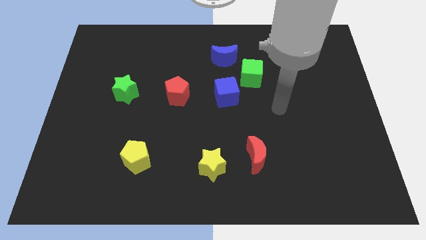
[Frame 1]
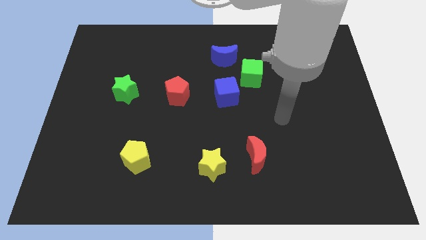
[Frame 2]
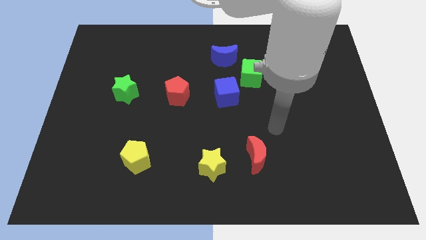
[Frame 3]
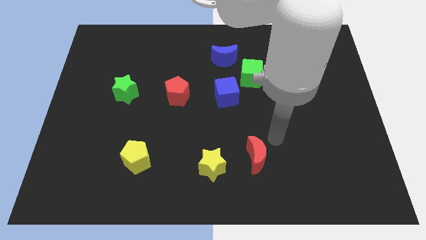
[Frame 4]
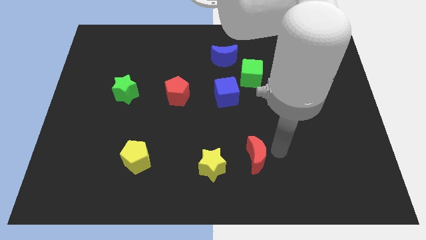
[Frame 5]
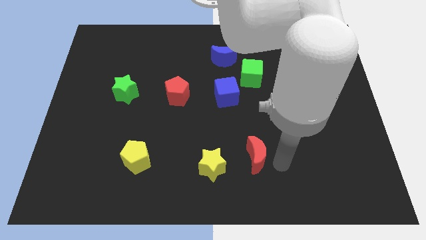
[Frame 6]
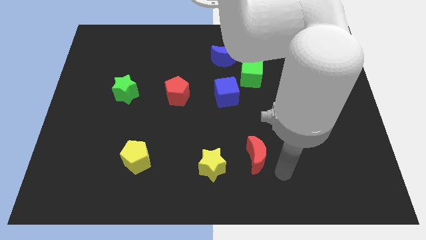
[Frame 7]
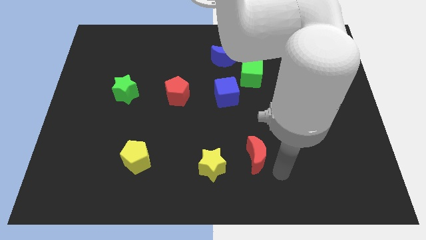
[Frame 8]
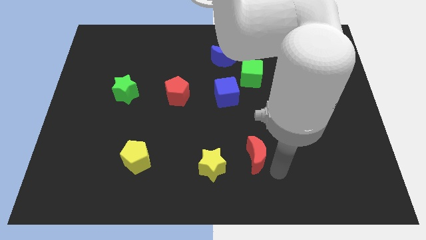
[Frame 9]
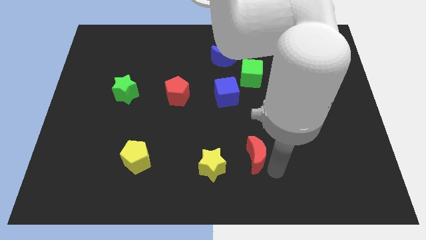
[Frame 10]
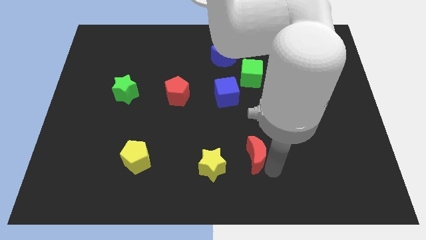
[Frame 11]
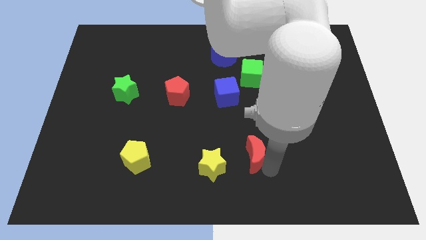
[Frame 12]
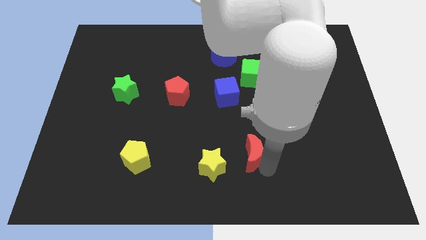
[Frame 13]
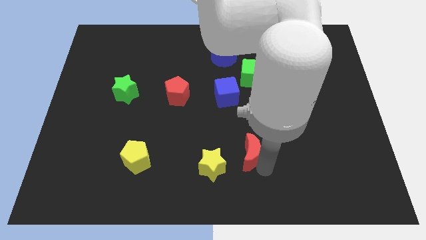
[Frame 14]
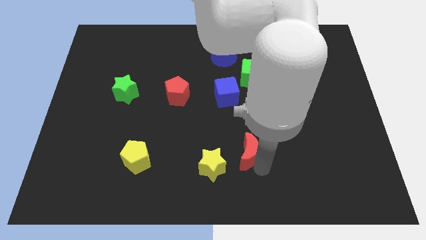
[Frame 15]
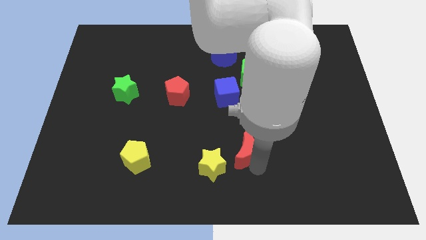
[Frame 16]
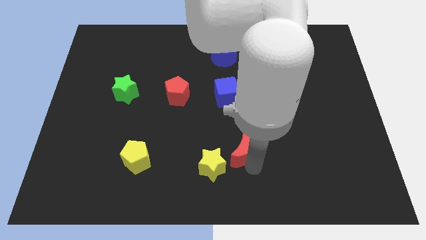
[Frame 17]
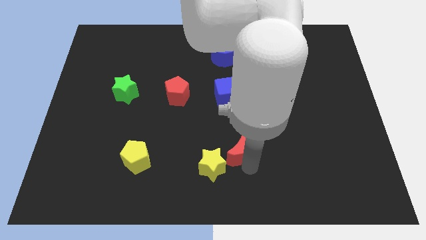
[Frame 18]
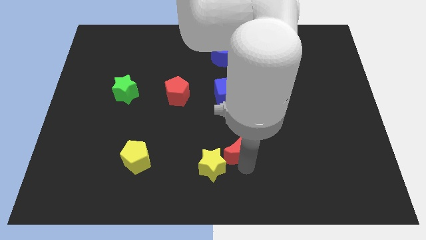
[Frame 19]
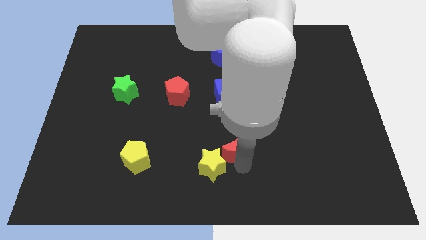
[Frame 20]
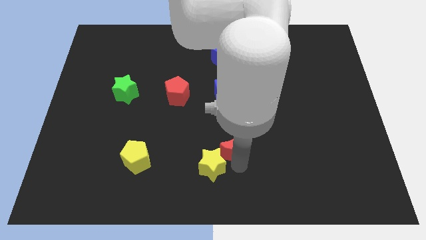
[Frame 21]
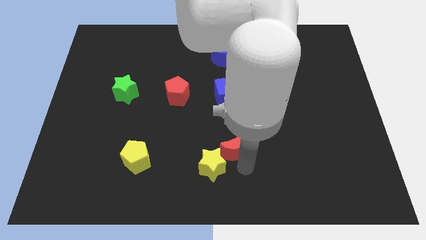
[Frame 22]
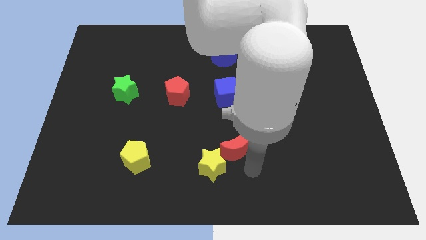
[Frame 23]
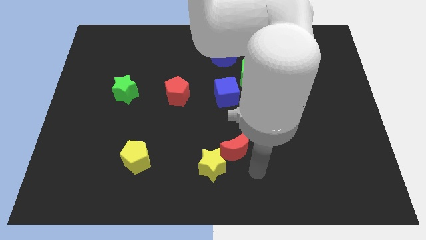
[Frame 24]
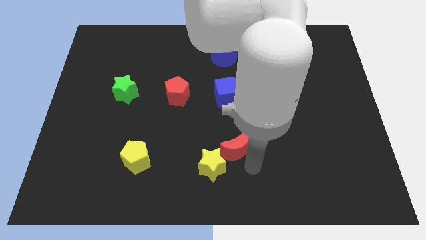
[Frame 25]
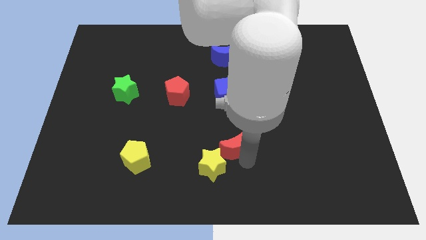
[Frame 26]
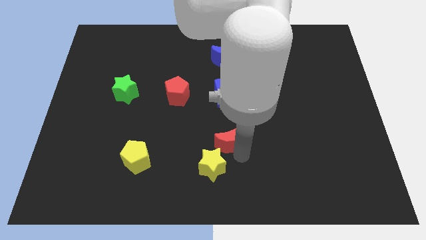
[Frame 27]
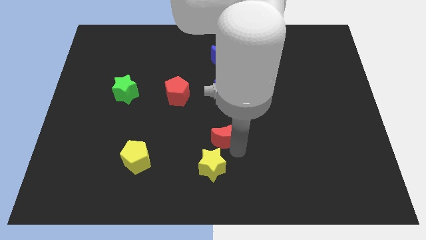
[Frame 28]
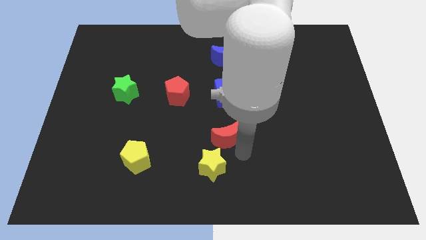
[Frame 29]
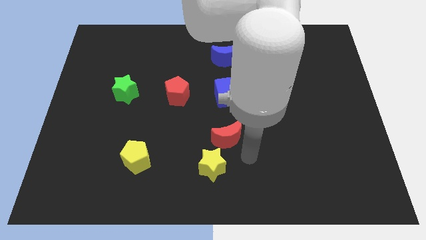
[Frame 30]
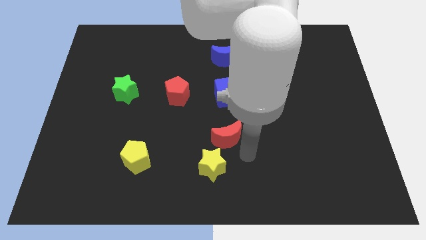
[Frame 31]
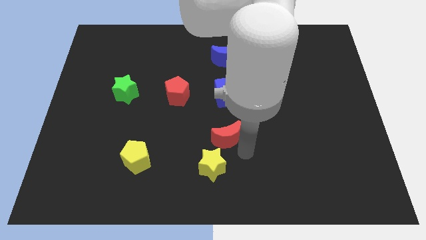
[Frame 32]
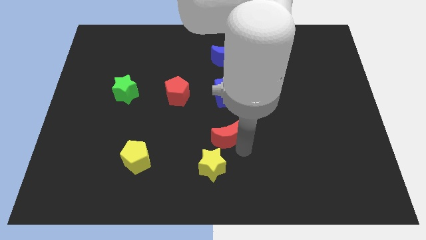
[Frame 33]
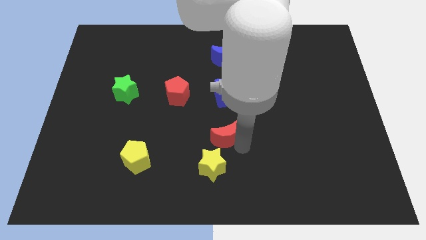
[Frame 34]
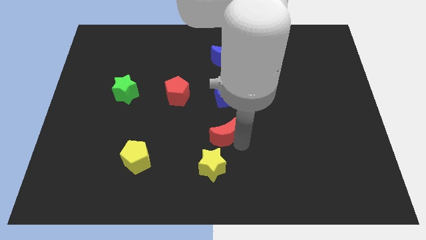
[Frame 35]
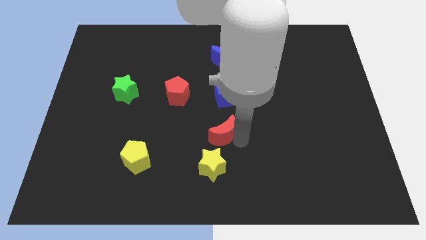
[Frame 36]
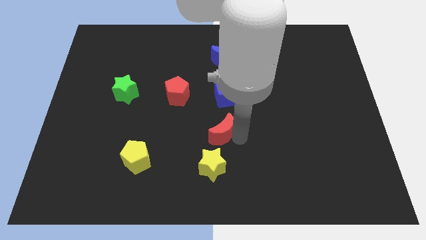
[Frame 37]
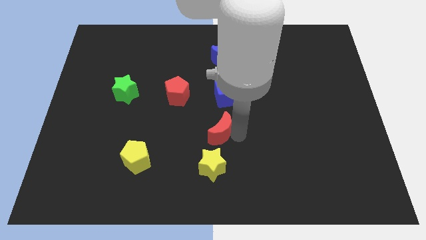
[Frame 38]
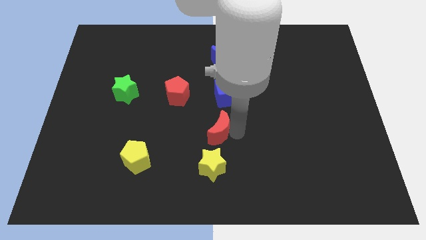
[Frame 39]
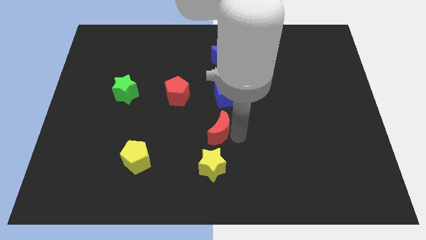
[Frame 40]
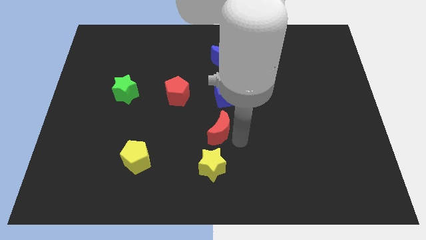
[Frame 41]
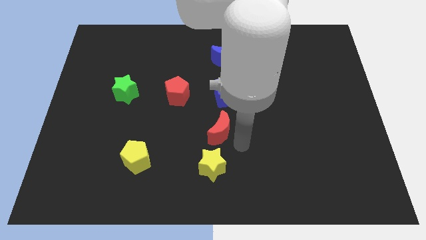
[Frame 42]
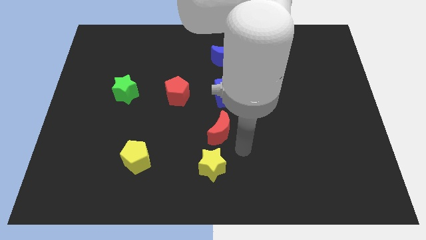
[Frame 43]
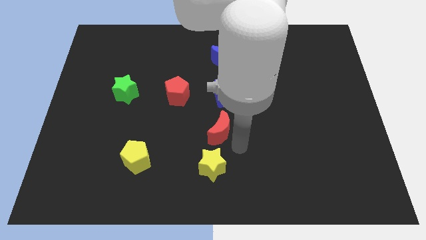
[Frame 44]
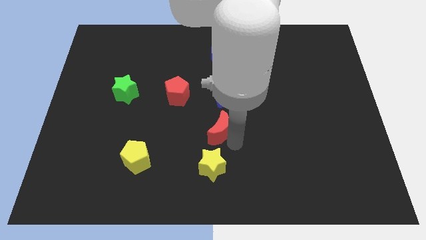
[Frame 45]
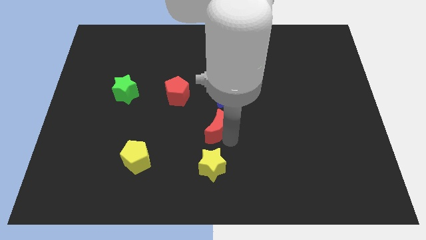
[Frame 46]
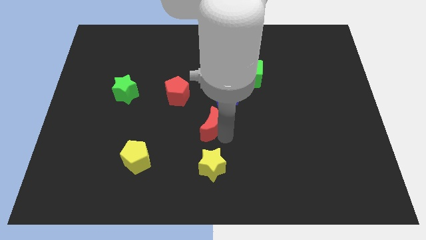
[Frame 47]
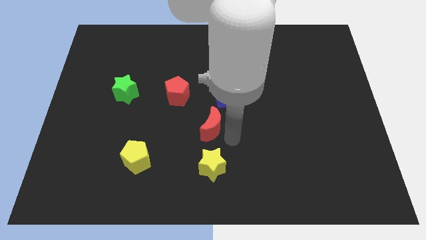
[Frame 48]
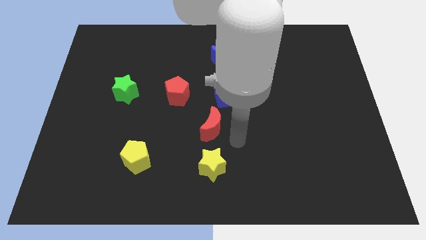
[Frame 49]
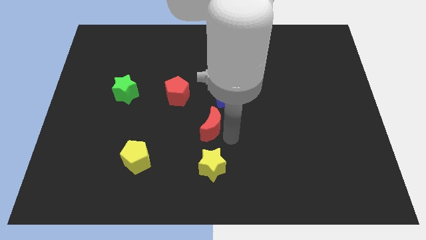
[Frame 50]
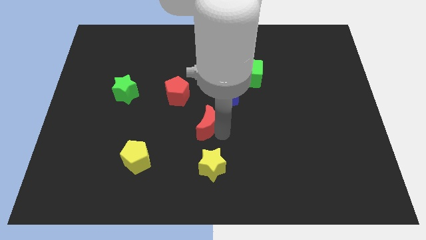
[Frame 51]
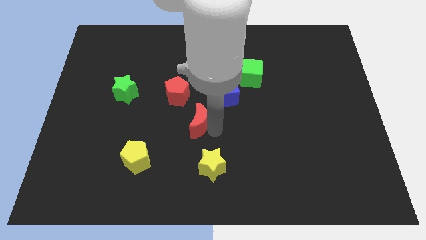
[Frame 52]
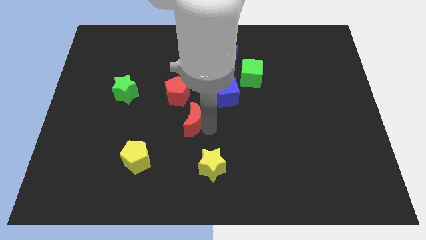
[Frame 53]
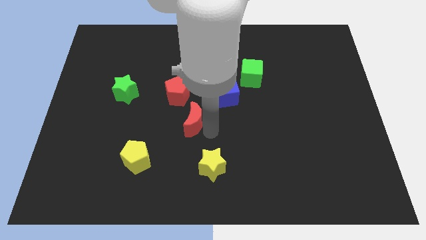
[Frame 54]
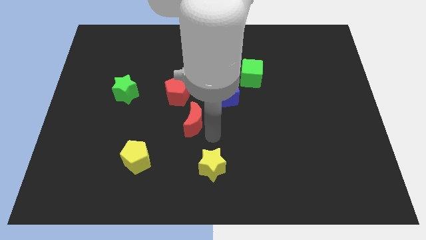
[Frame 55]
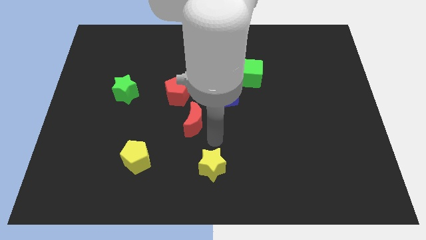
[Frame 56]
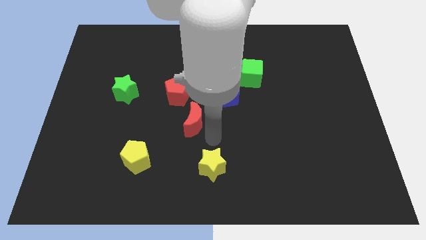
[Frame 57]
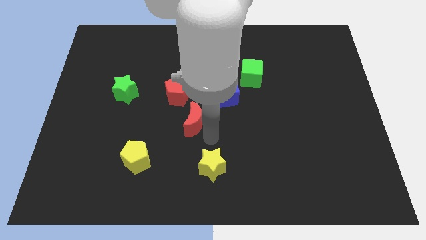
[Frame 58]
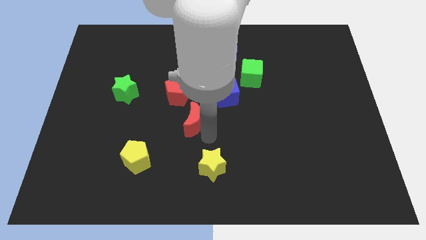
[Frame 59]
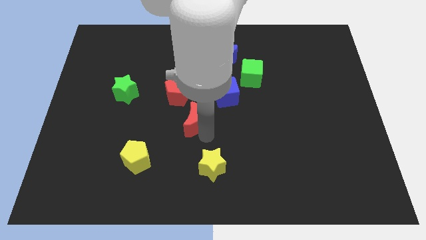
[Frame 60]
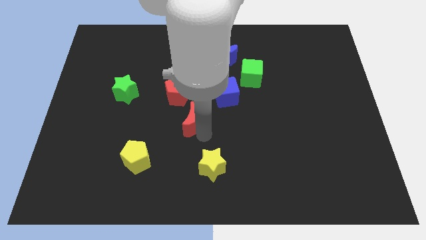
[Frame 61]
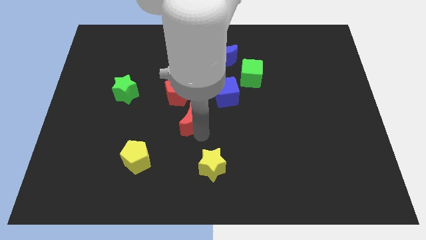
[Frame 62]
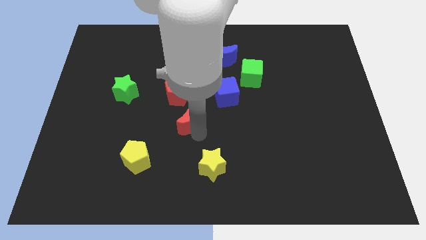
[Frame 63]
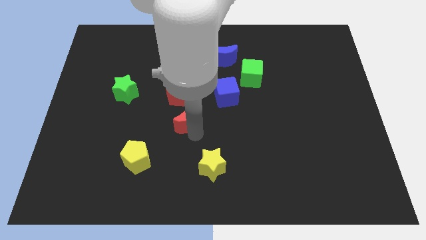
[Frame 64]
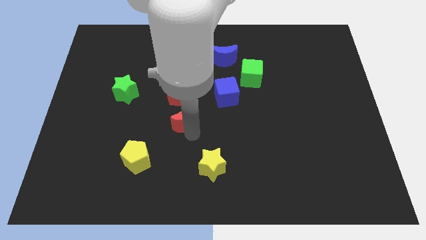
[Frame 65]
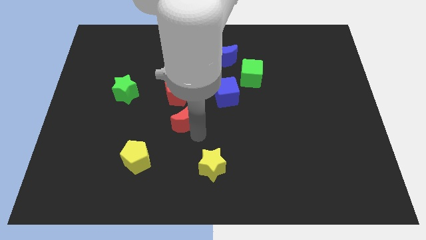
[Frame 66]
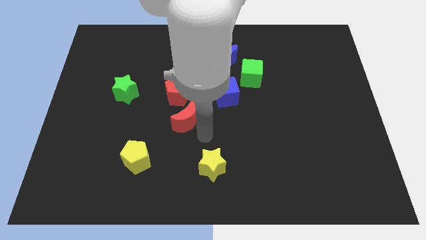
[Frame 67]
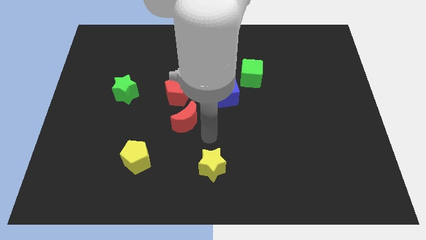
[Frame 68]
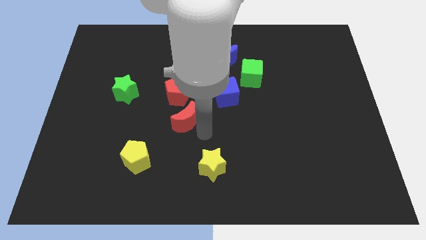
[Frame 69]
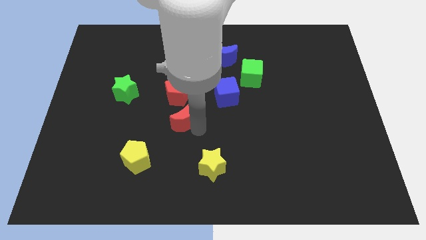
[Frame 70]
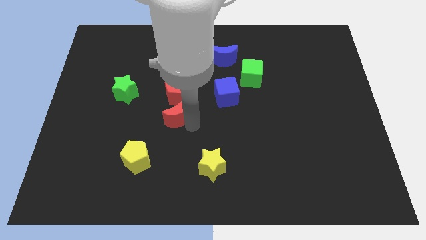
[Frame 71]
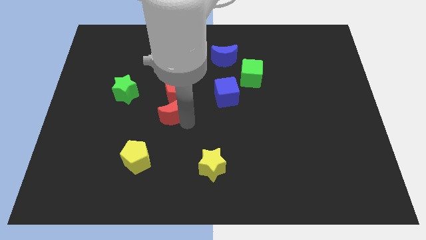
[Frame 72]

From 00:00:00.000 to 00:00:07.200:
move the red moon diagonally up and left

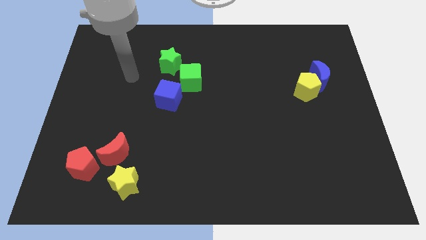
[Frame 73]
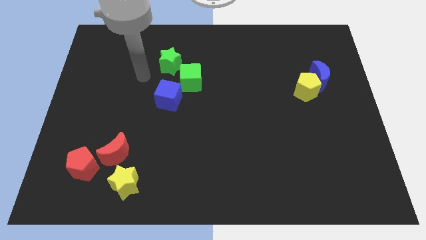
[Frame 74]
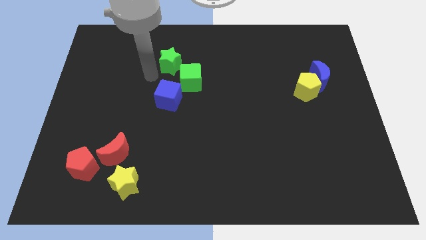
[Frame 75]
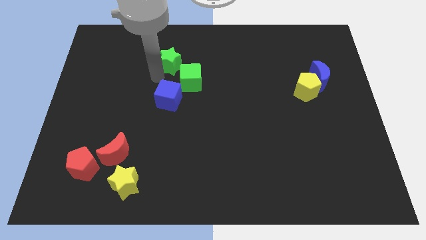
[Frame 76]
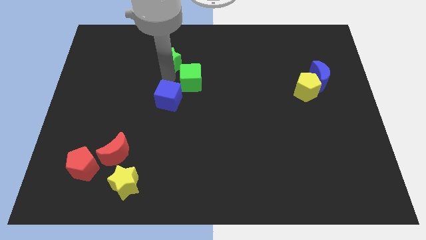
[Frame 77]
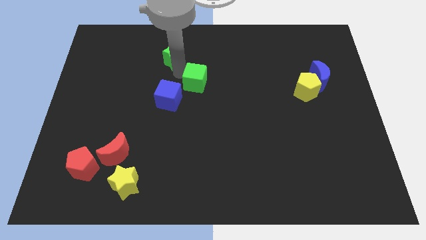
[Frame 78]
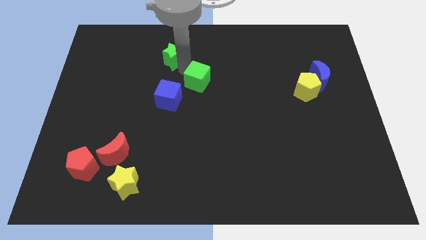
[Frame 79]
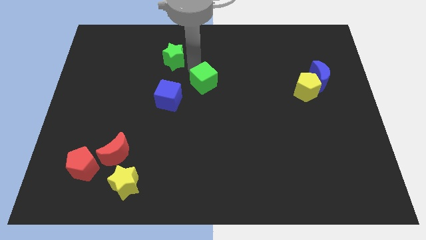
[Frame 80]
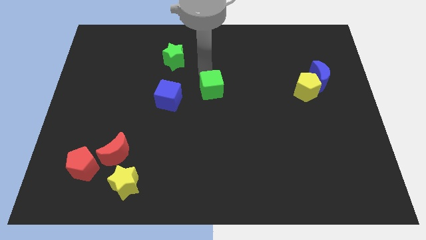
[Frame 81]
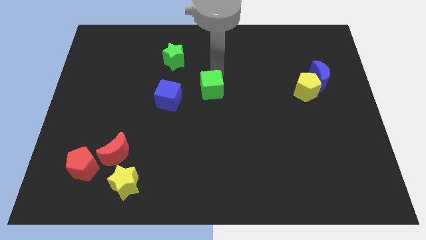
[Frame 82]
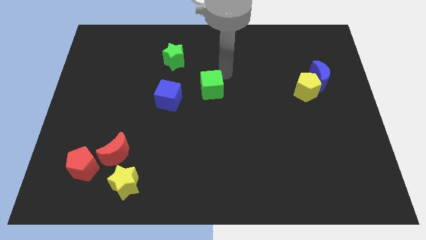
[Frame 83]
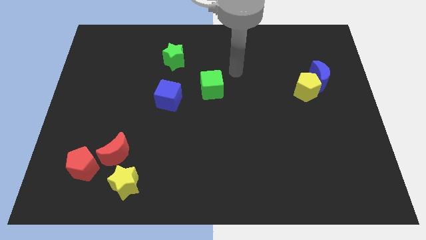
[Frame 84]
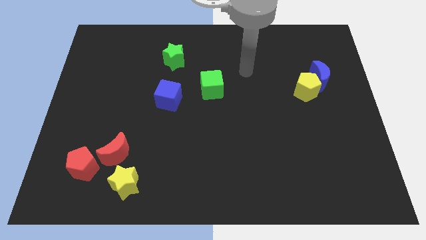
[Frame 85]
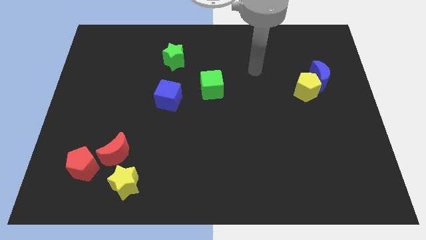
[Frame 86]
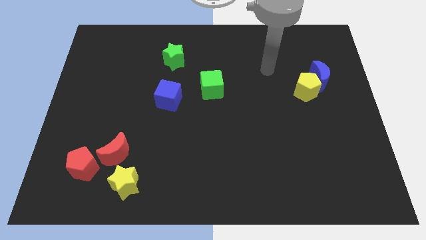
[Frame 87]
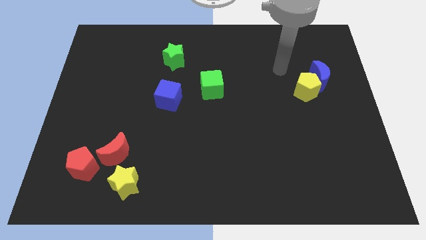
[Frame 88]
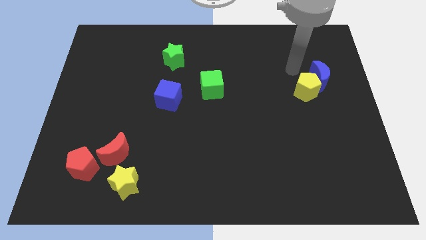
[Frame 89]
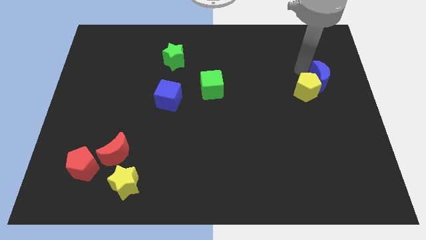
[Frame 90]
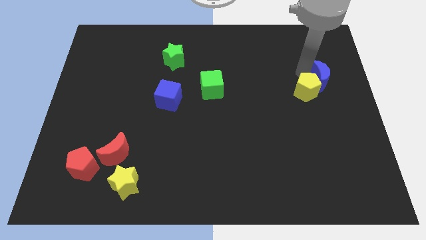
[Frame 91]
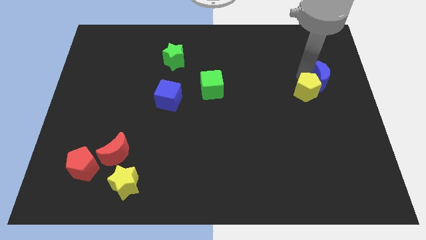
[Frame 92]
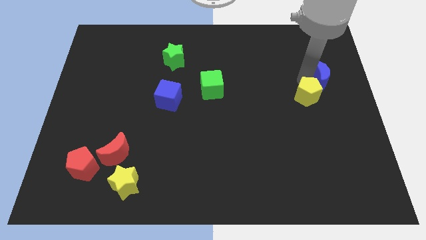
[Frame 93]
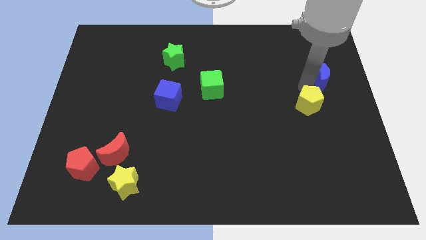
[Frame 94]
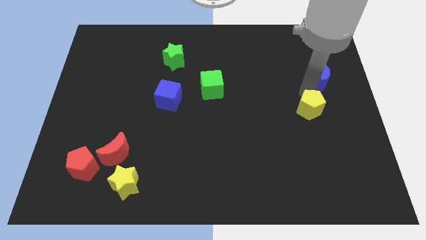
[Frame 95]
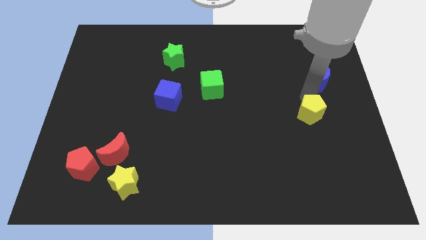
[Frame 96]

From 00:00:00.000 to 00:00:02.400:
move the yellow pentagon a little bit down
